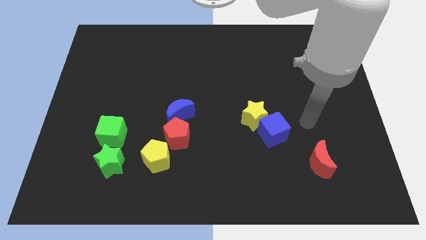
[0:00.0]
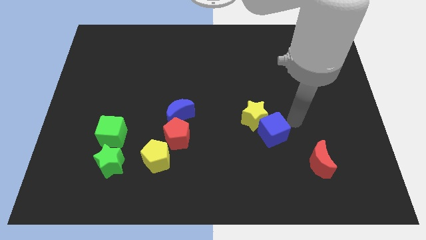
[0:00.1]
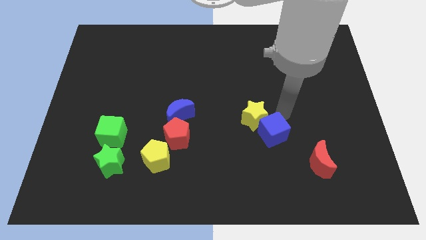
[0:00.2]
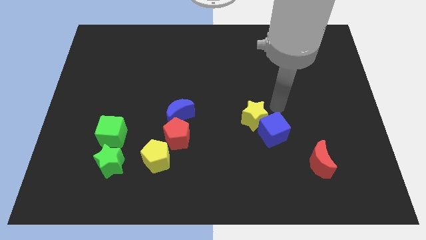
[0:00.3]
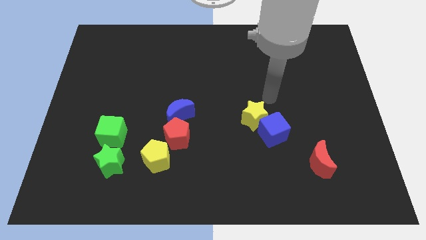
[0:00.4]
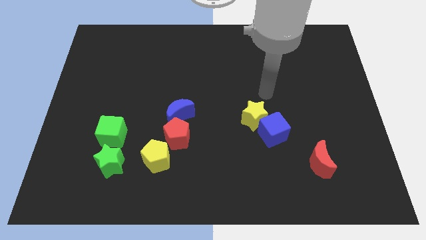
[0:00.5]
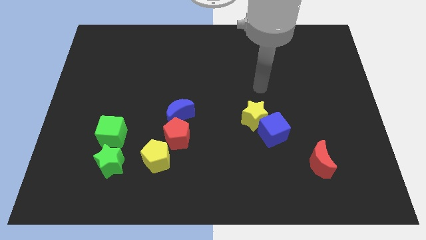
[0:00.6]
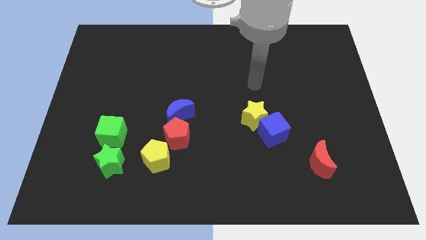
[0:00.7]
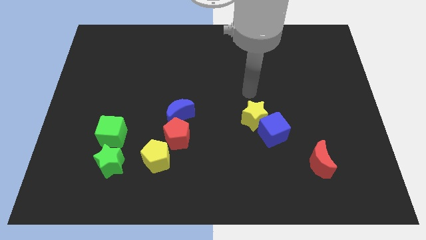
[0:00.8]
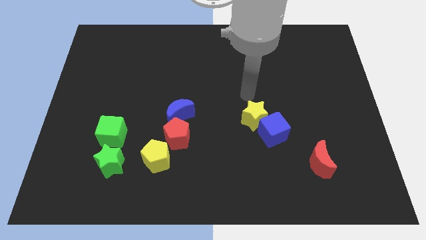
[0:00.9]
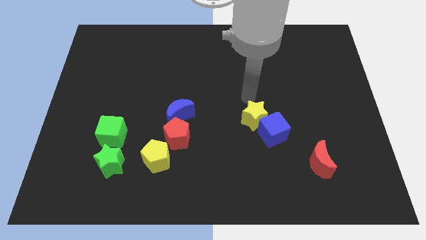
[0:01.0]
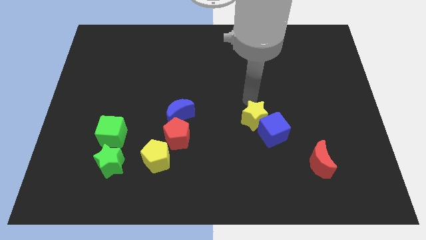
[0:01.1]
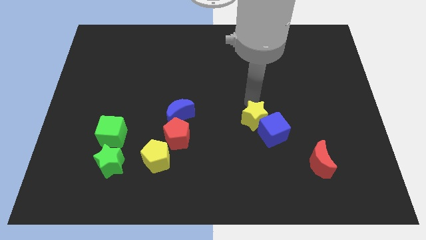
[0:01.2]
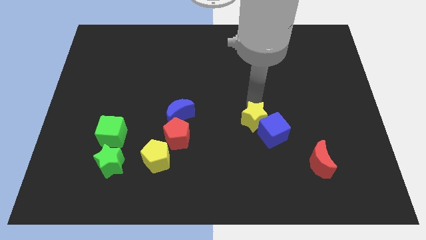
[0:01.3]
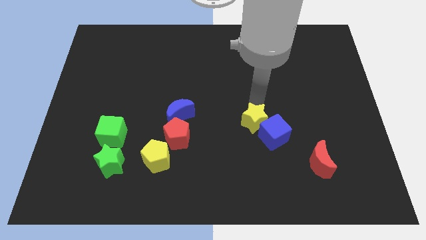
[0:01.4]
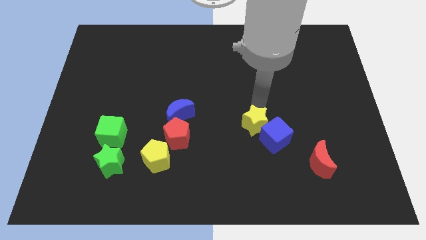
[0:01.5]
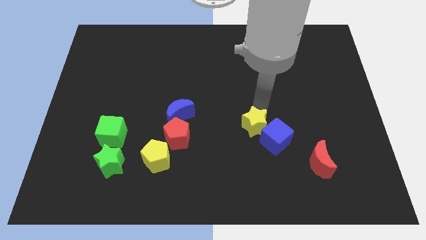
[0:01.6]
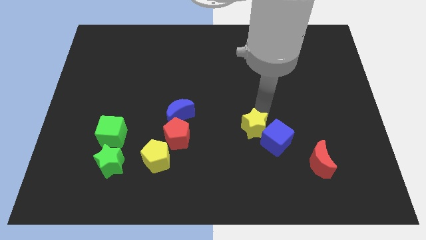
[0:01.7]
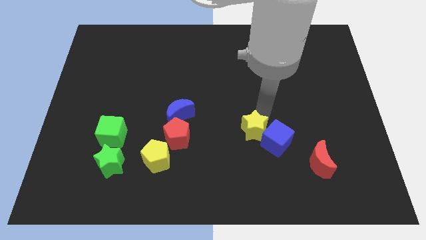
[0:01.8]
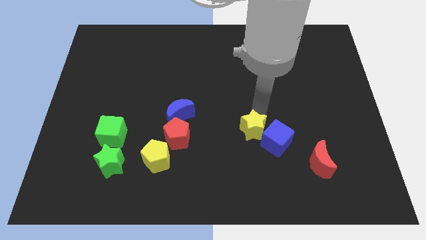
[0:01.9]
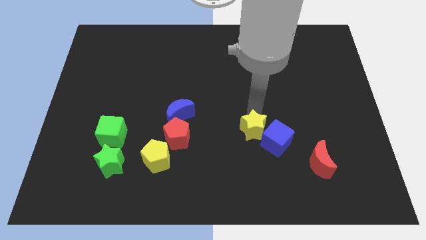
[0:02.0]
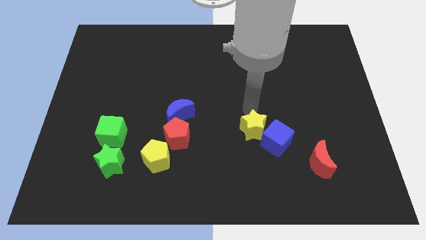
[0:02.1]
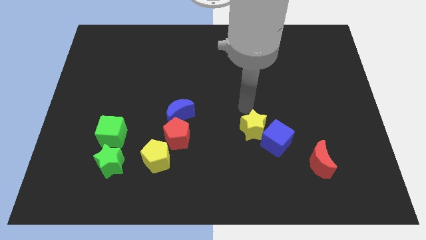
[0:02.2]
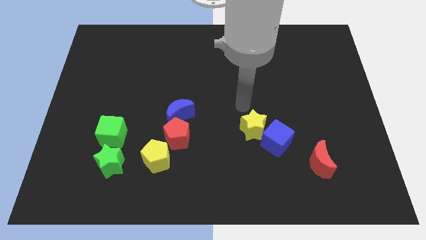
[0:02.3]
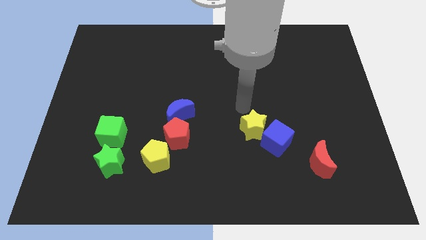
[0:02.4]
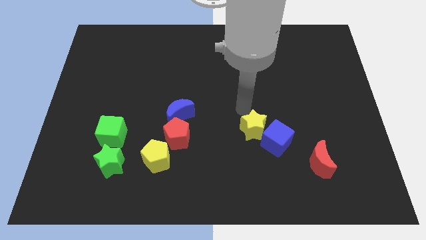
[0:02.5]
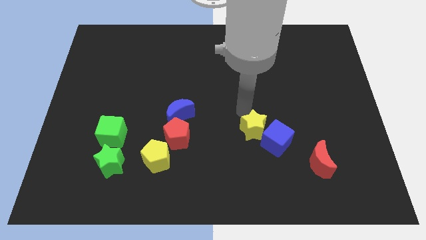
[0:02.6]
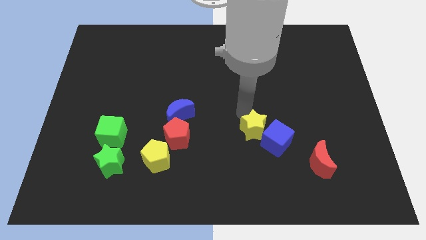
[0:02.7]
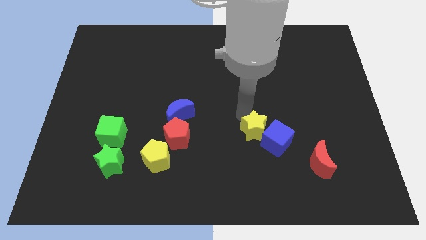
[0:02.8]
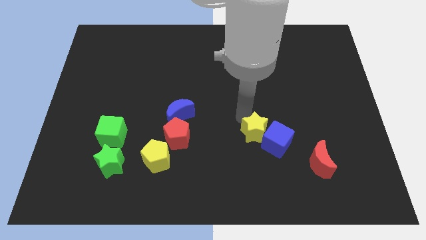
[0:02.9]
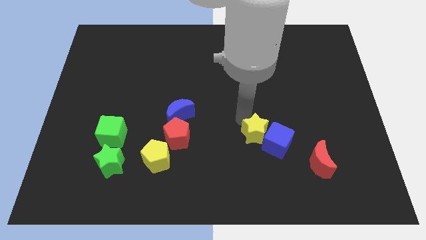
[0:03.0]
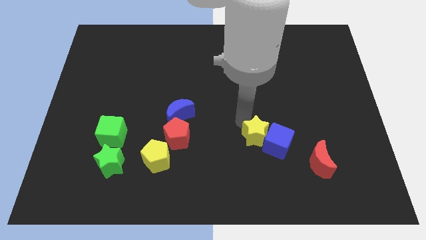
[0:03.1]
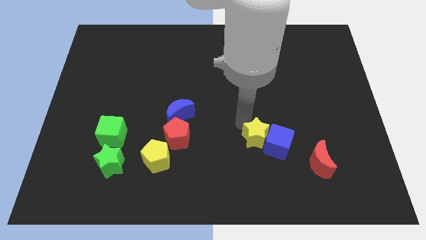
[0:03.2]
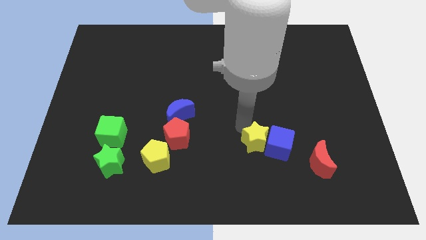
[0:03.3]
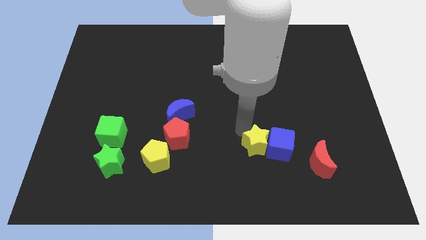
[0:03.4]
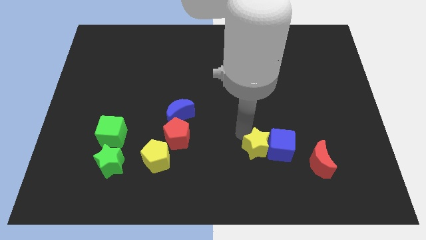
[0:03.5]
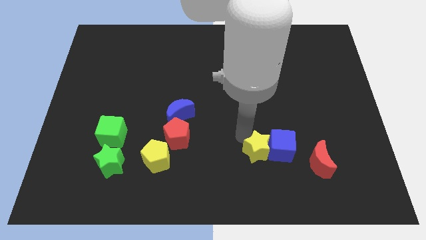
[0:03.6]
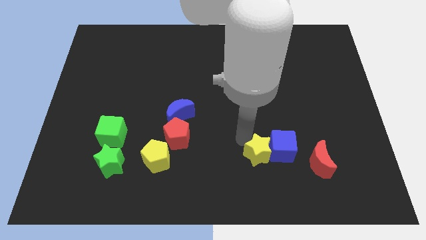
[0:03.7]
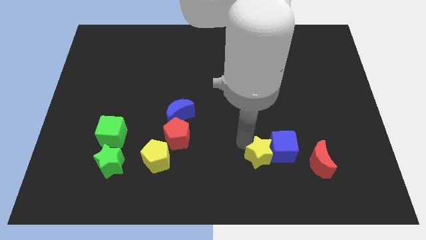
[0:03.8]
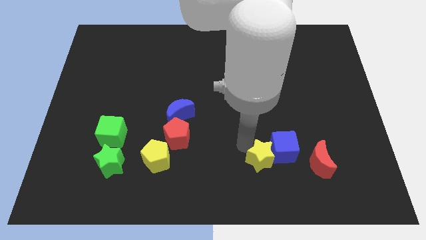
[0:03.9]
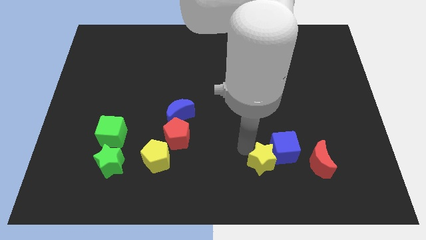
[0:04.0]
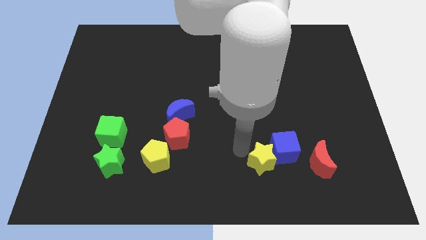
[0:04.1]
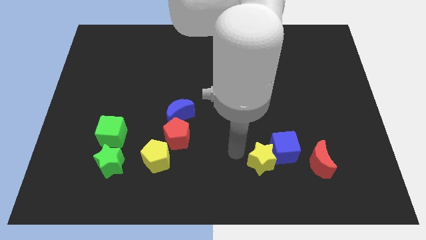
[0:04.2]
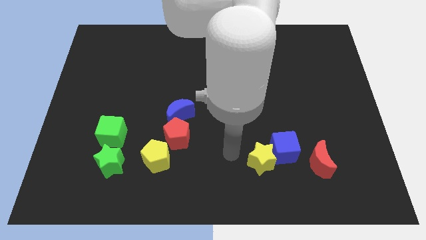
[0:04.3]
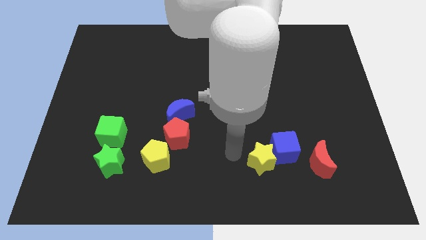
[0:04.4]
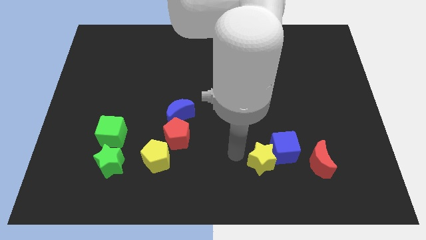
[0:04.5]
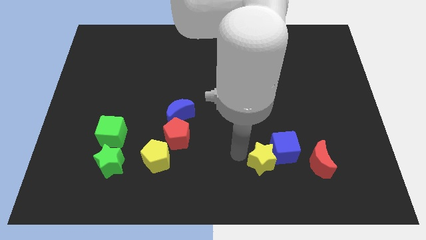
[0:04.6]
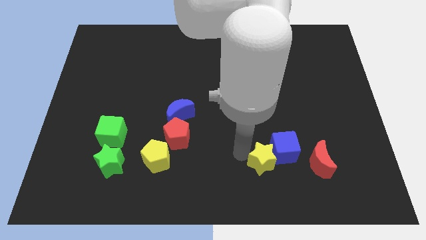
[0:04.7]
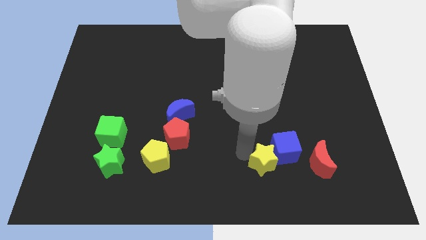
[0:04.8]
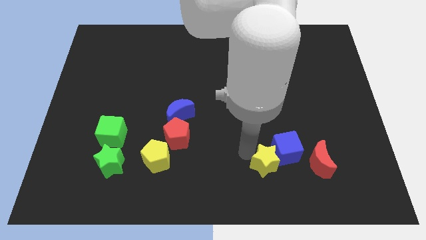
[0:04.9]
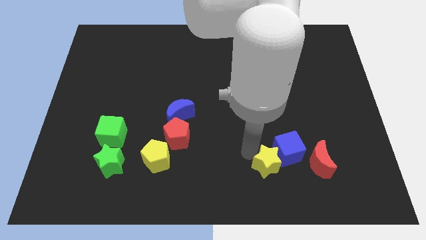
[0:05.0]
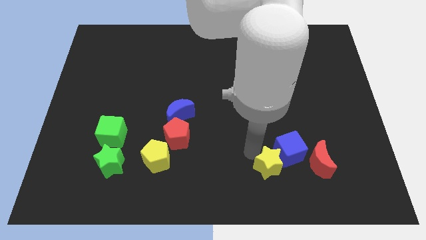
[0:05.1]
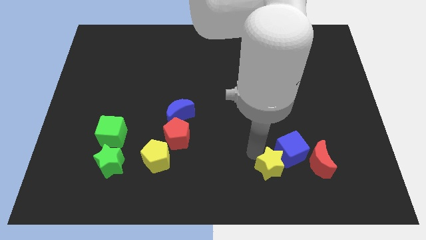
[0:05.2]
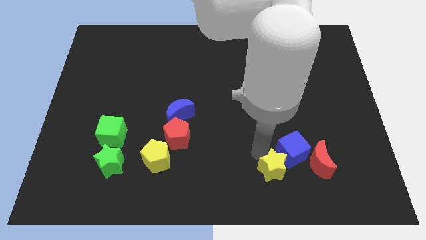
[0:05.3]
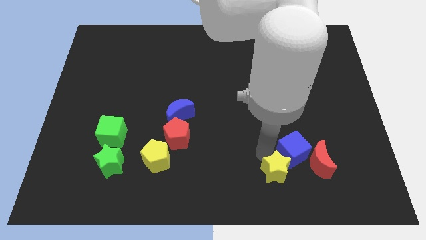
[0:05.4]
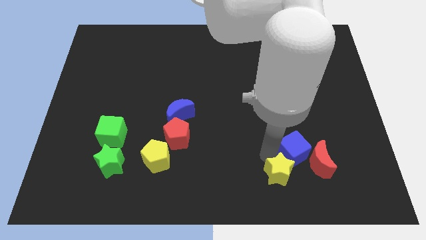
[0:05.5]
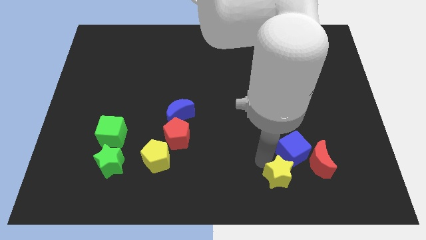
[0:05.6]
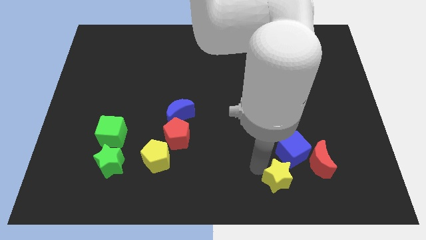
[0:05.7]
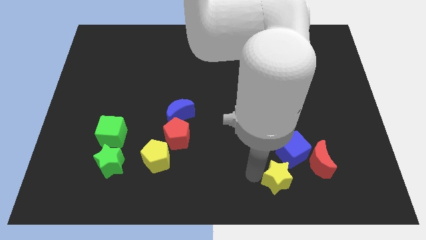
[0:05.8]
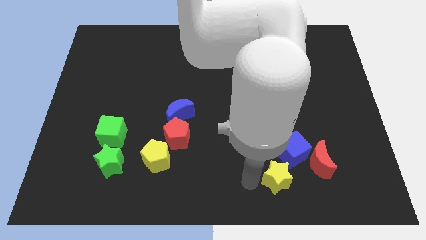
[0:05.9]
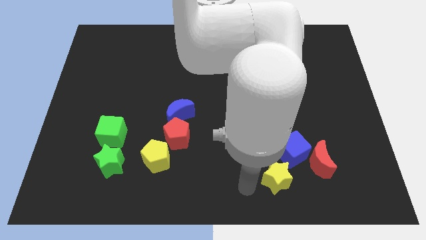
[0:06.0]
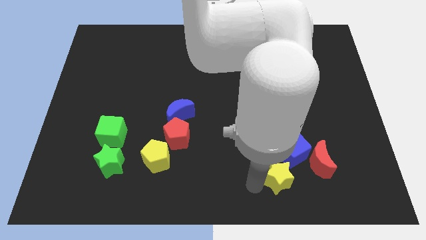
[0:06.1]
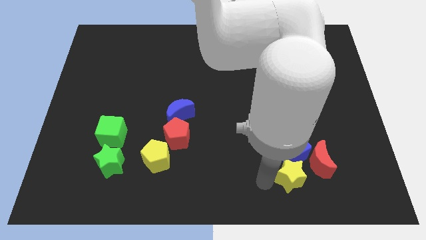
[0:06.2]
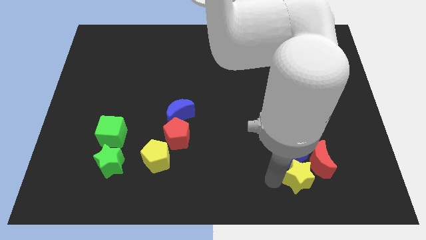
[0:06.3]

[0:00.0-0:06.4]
slide the yellow star towards the red moon
